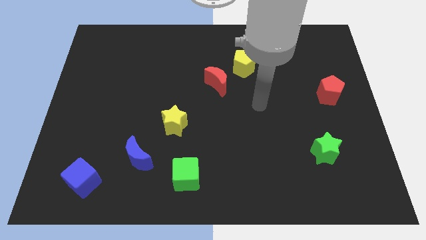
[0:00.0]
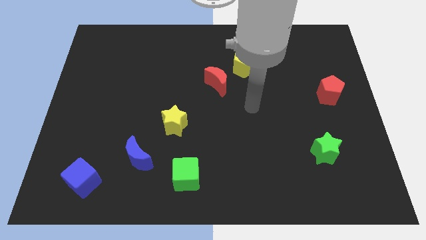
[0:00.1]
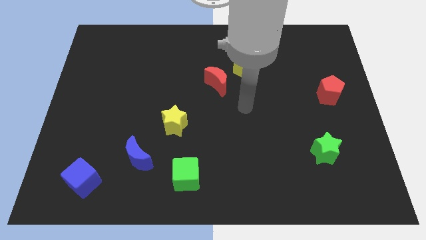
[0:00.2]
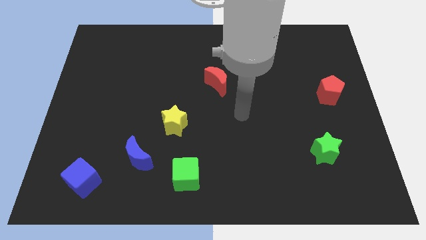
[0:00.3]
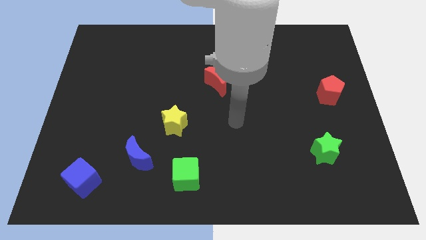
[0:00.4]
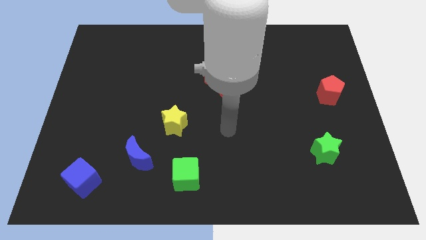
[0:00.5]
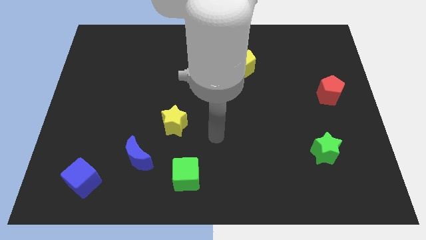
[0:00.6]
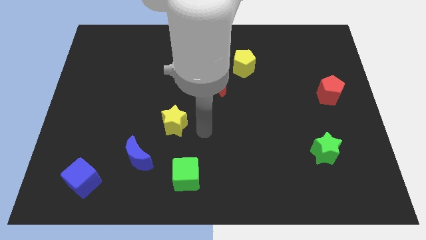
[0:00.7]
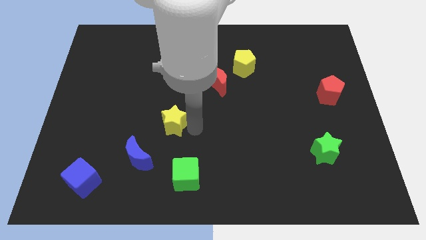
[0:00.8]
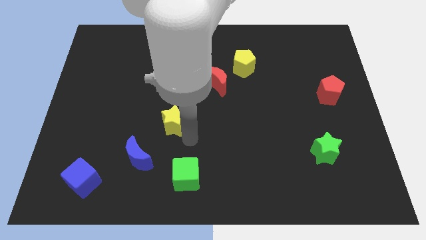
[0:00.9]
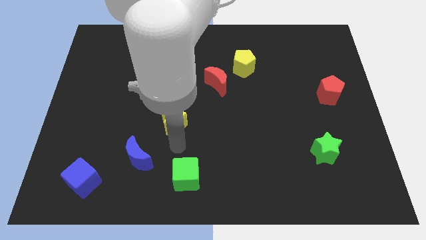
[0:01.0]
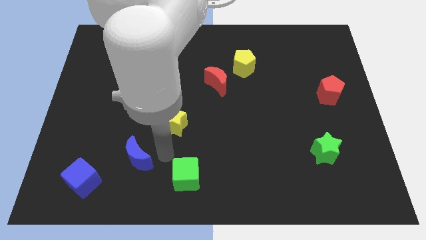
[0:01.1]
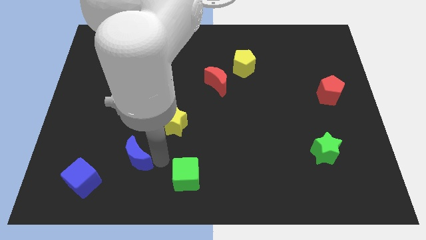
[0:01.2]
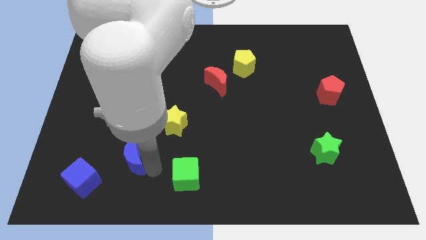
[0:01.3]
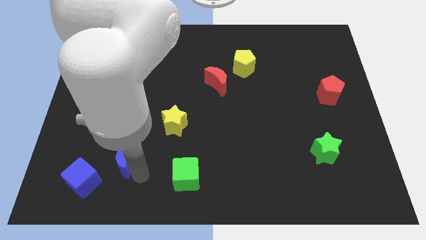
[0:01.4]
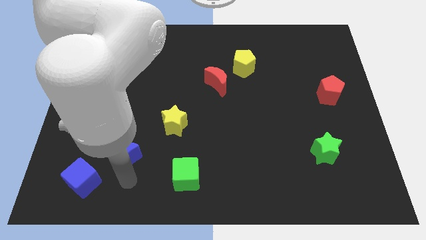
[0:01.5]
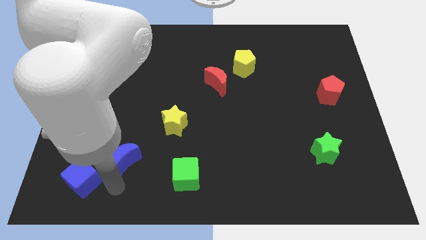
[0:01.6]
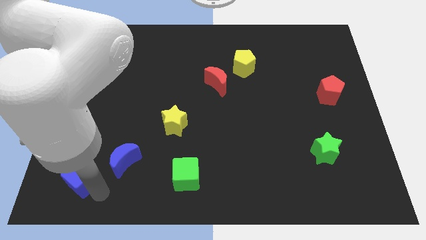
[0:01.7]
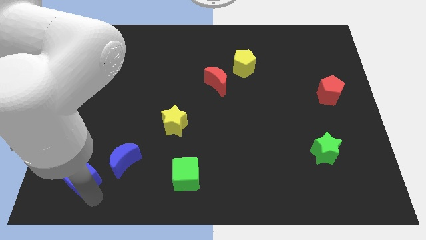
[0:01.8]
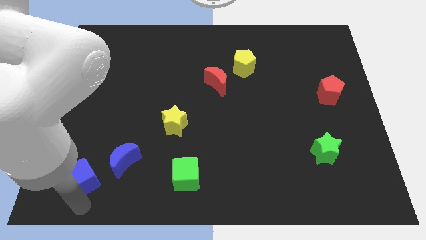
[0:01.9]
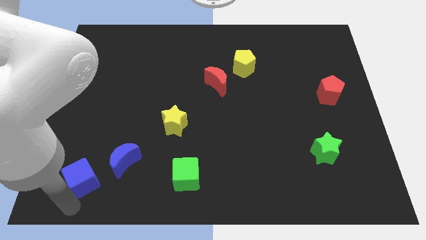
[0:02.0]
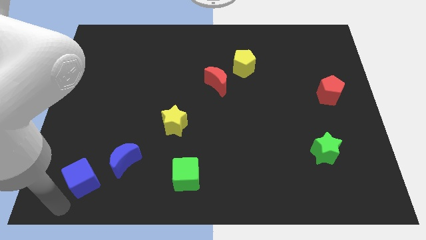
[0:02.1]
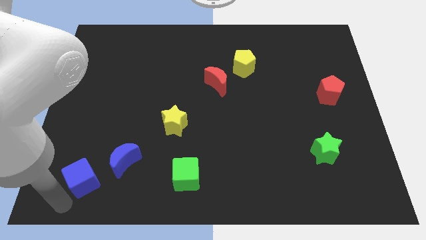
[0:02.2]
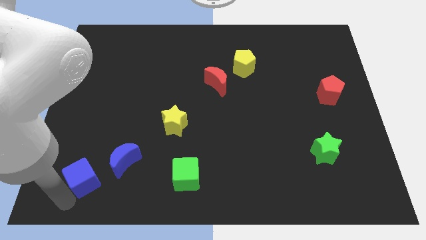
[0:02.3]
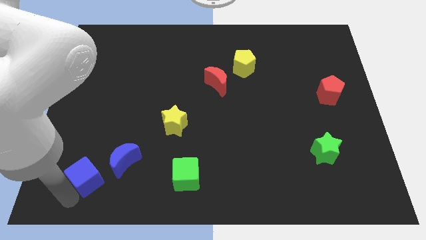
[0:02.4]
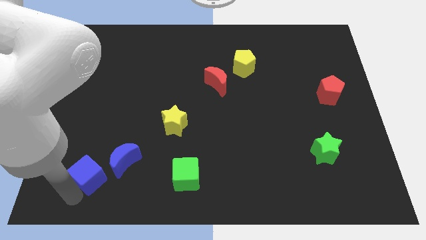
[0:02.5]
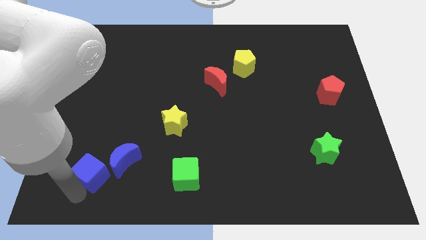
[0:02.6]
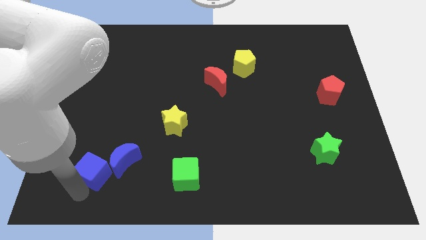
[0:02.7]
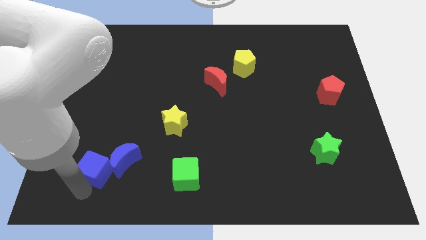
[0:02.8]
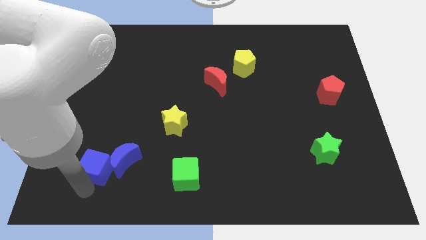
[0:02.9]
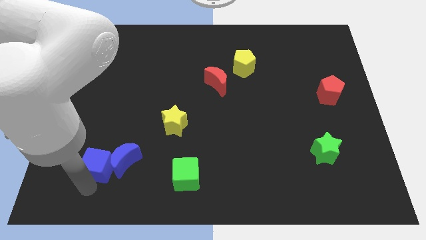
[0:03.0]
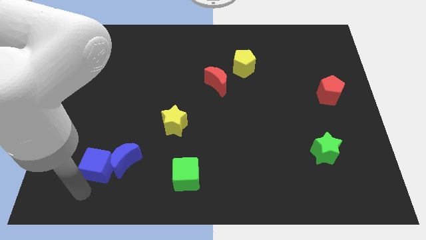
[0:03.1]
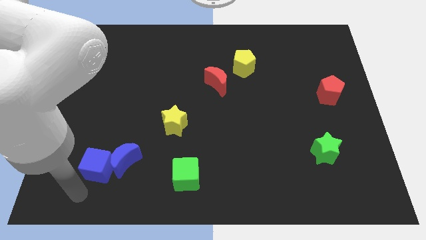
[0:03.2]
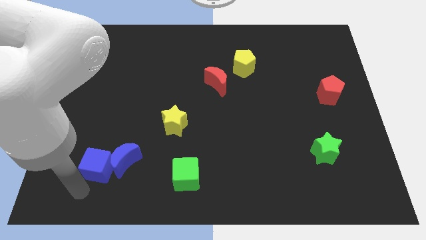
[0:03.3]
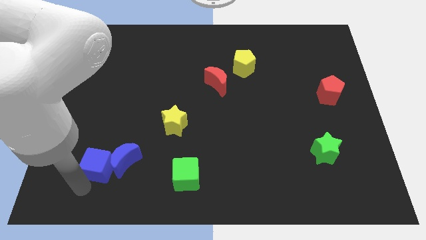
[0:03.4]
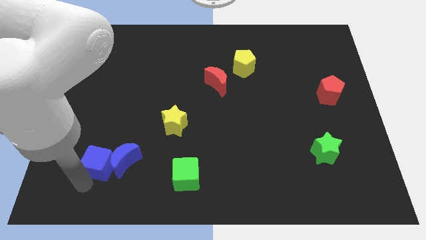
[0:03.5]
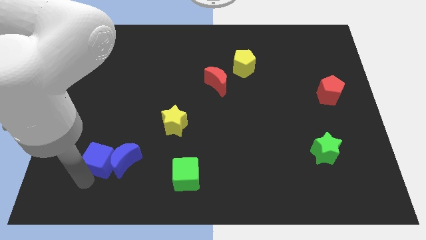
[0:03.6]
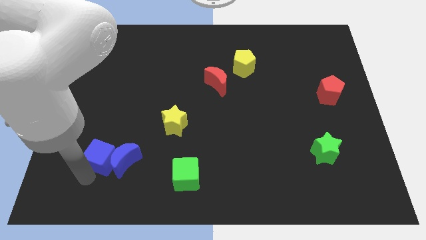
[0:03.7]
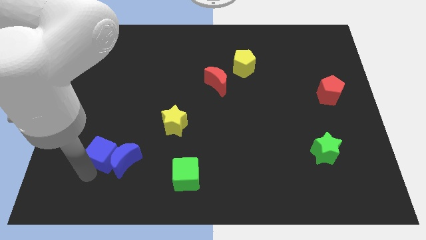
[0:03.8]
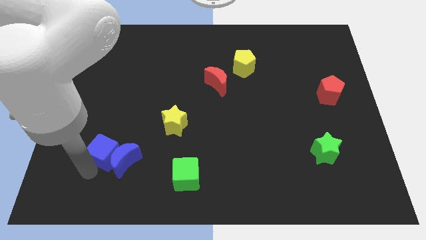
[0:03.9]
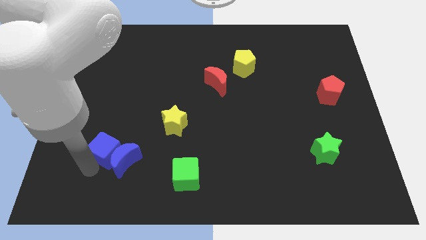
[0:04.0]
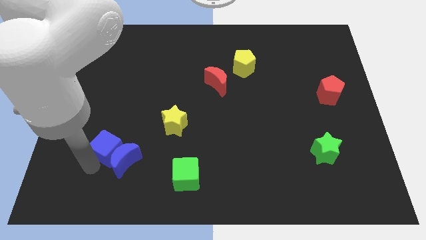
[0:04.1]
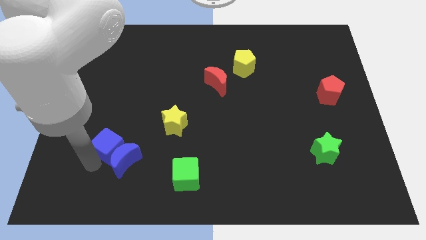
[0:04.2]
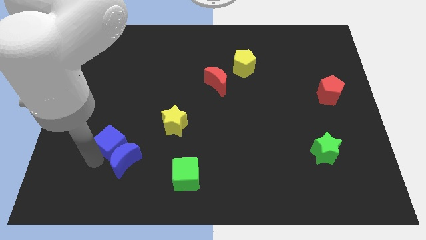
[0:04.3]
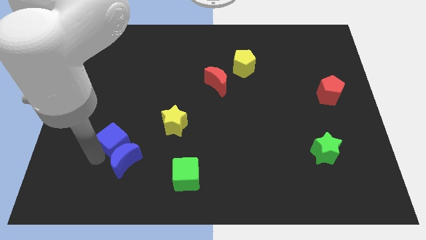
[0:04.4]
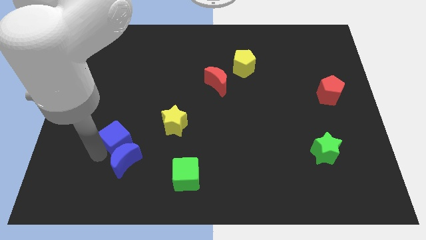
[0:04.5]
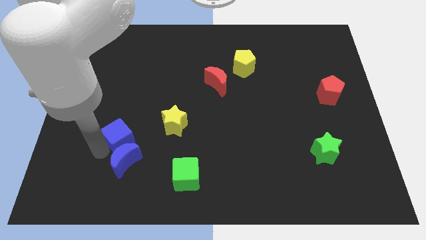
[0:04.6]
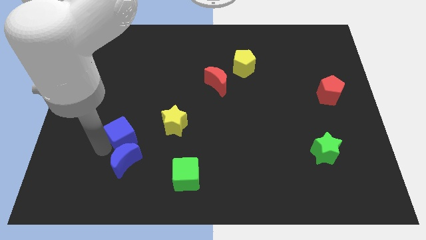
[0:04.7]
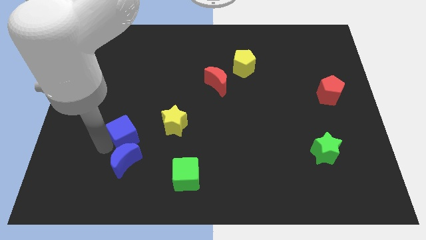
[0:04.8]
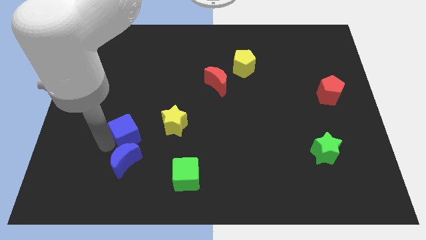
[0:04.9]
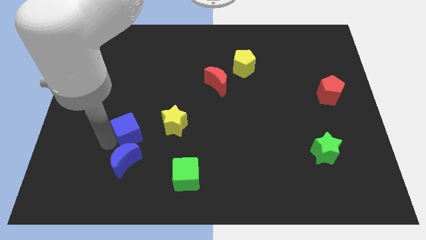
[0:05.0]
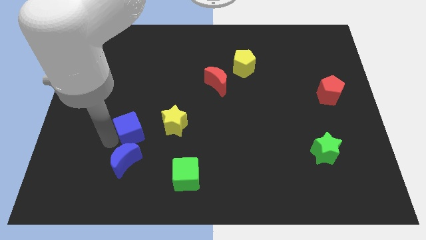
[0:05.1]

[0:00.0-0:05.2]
slide the blue cube to the top right of the blue moon

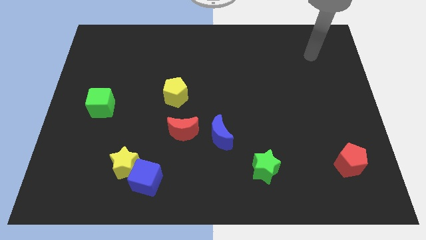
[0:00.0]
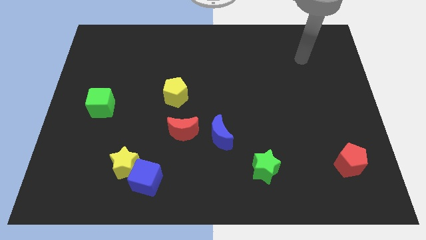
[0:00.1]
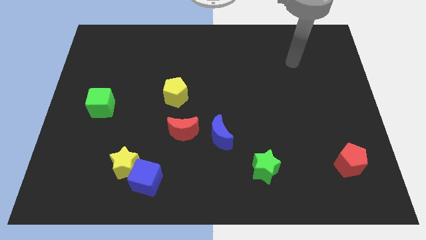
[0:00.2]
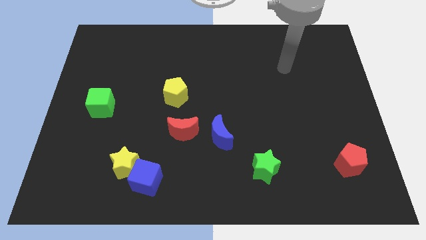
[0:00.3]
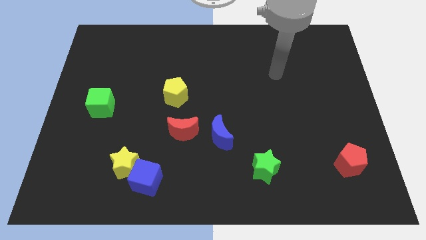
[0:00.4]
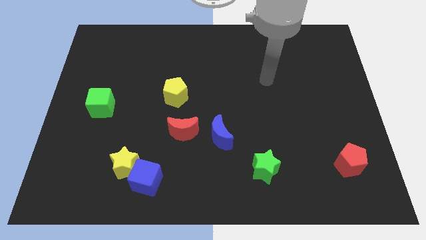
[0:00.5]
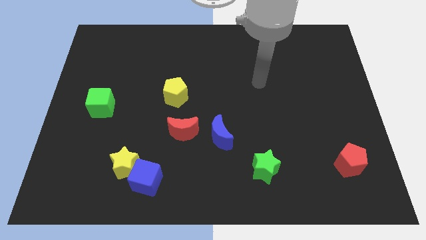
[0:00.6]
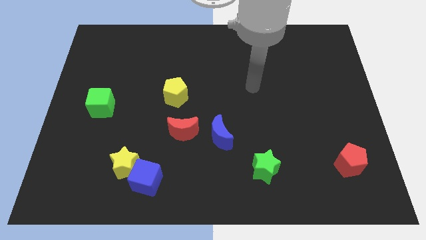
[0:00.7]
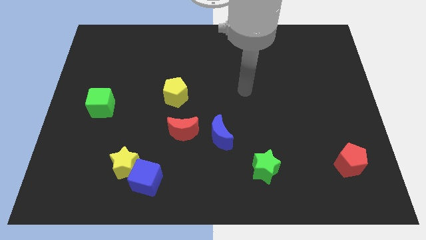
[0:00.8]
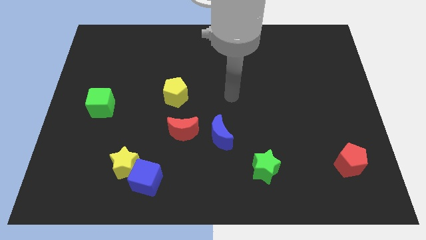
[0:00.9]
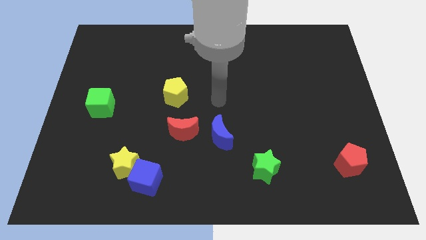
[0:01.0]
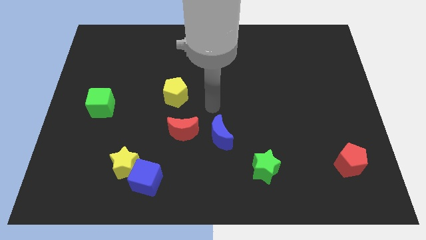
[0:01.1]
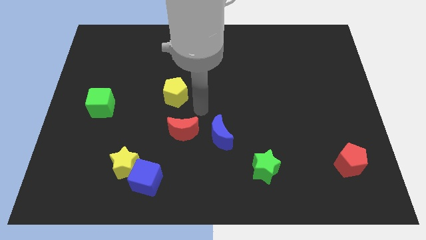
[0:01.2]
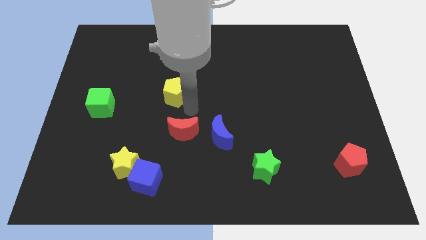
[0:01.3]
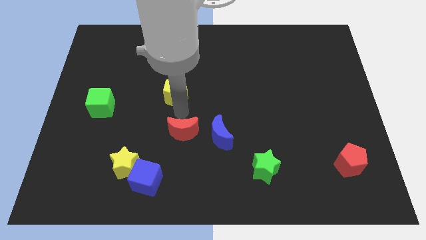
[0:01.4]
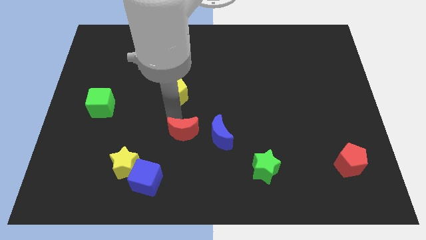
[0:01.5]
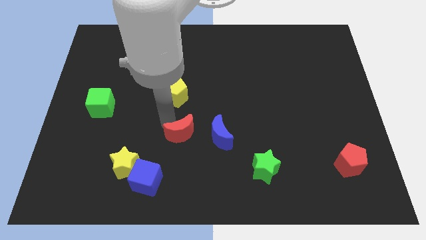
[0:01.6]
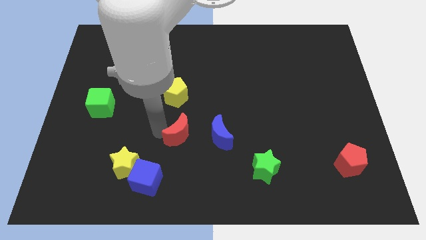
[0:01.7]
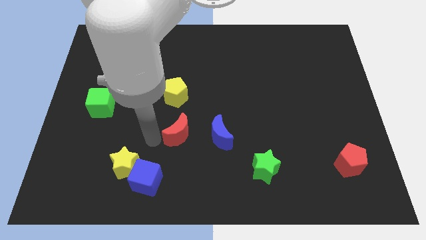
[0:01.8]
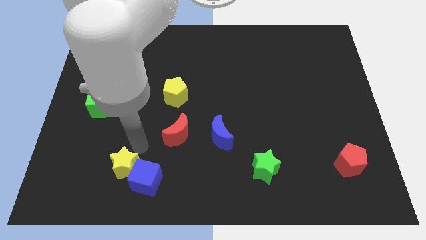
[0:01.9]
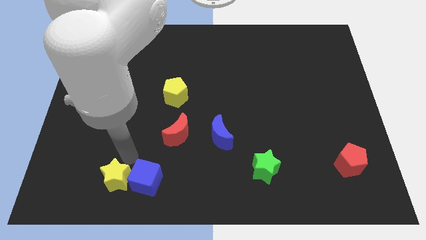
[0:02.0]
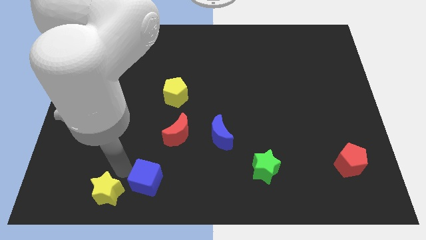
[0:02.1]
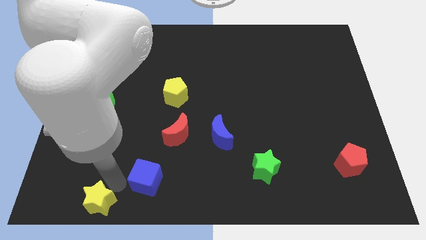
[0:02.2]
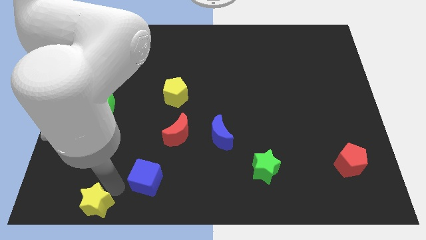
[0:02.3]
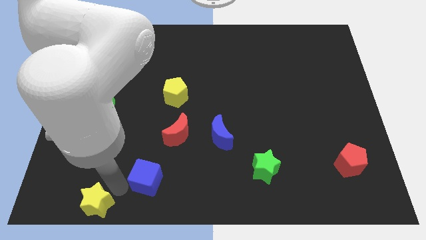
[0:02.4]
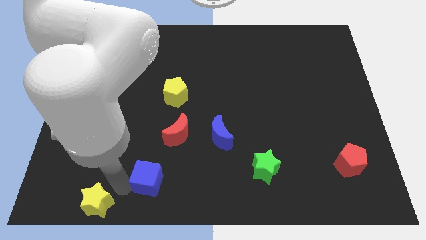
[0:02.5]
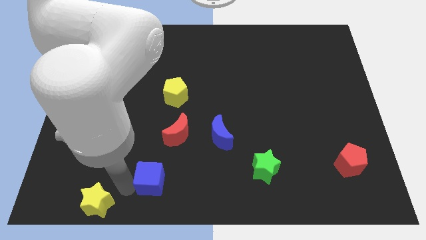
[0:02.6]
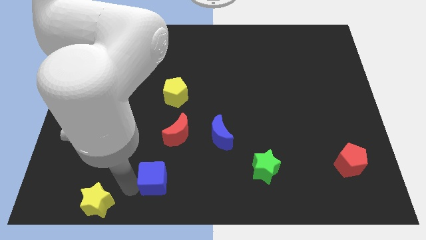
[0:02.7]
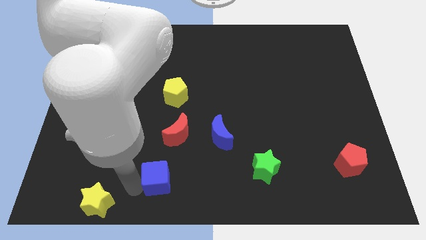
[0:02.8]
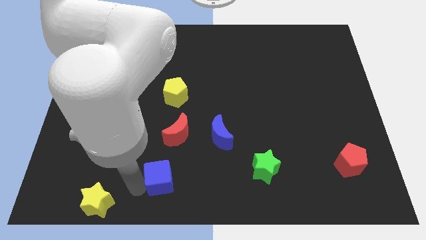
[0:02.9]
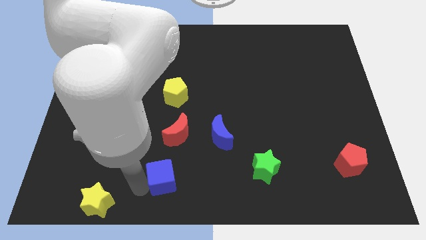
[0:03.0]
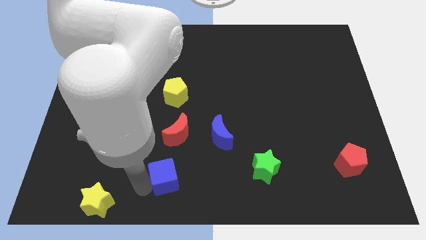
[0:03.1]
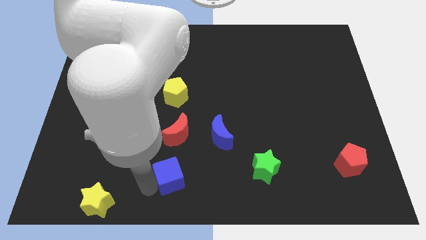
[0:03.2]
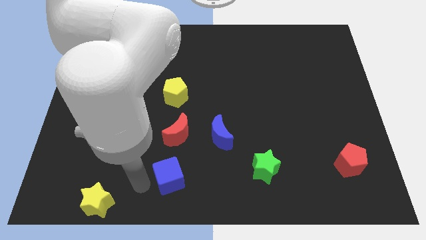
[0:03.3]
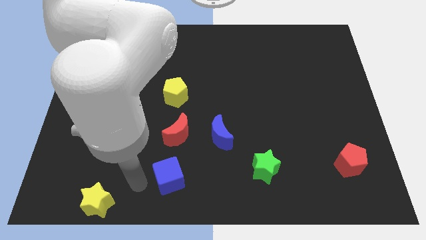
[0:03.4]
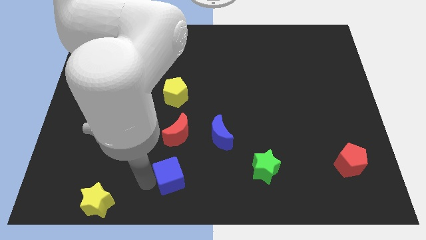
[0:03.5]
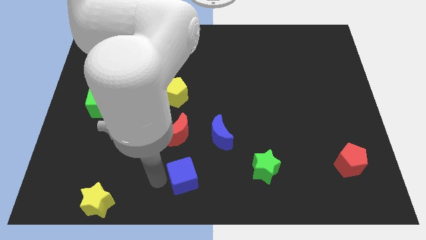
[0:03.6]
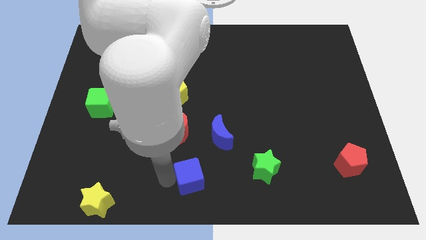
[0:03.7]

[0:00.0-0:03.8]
move the blue cube left of the green star
